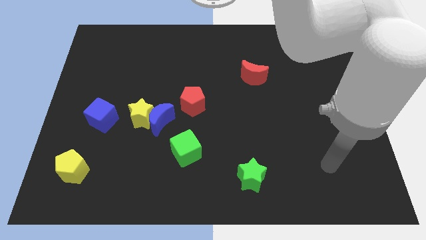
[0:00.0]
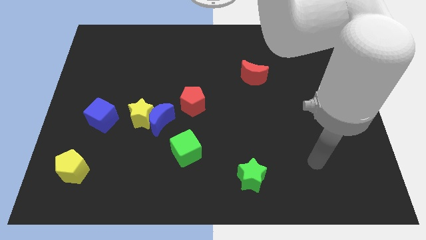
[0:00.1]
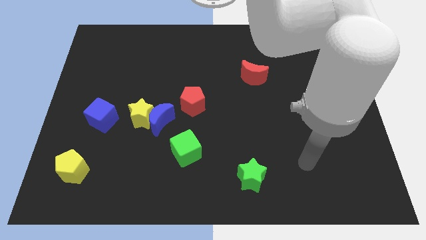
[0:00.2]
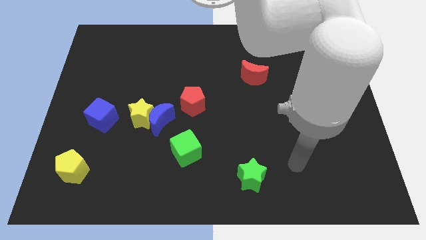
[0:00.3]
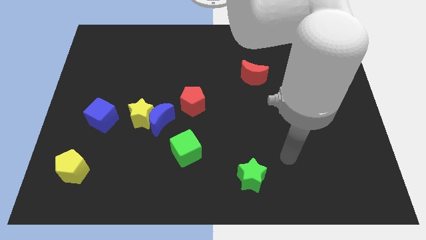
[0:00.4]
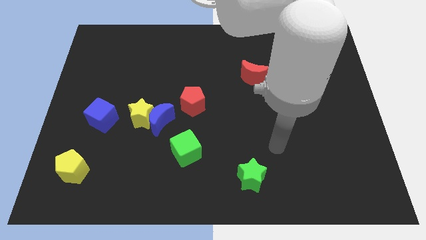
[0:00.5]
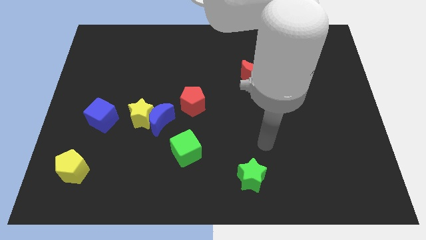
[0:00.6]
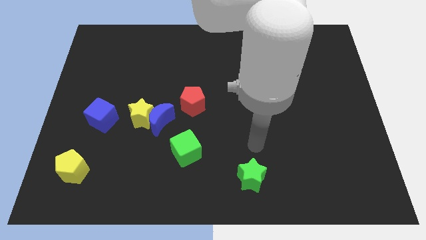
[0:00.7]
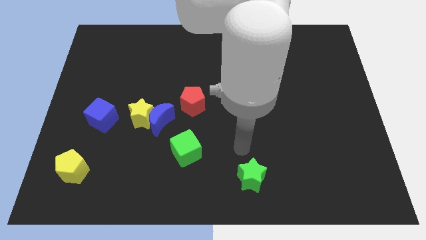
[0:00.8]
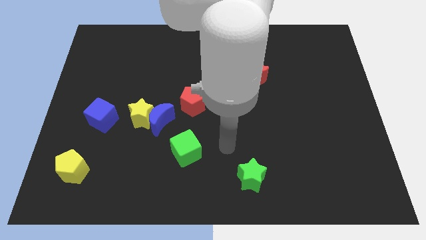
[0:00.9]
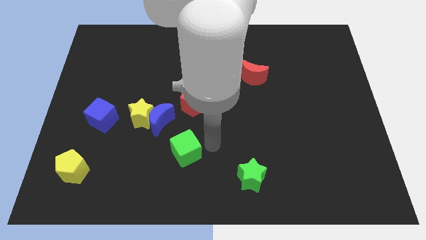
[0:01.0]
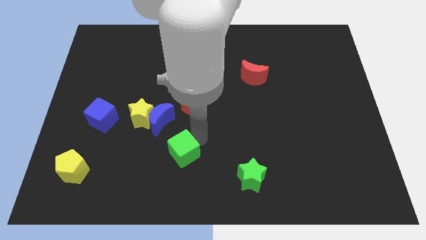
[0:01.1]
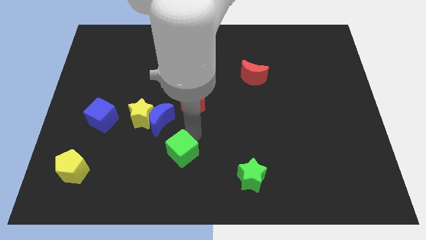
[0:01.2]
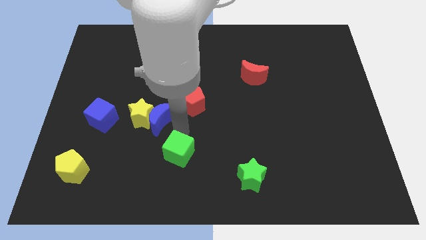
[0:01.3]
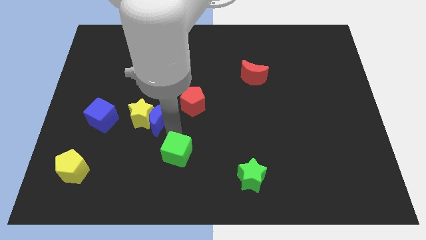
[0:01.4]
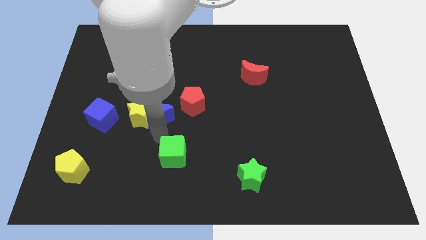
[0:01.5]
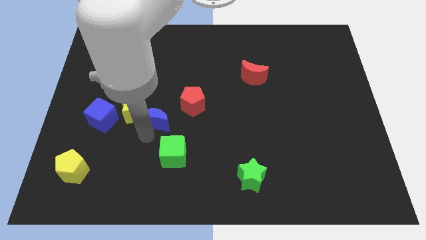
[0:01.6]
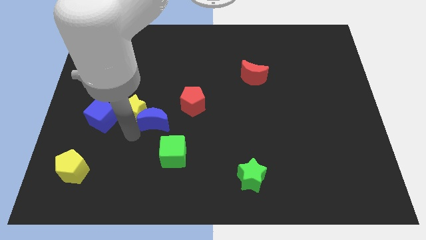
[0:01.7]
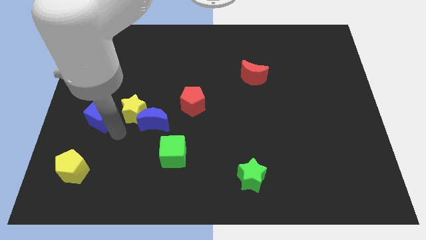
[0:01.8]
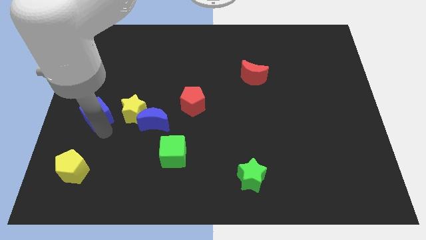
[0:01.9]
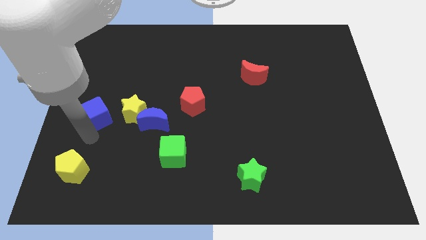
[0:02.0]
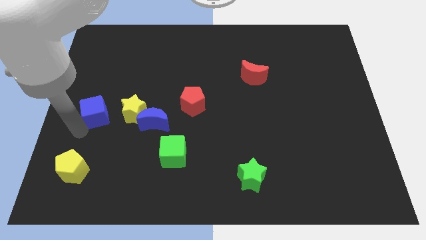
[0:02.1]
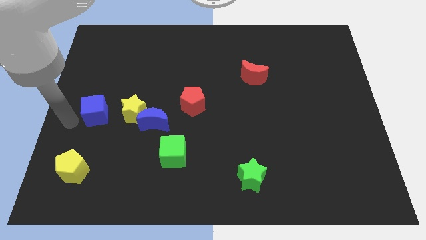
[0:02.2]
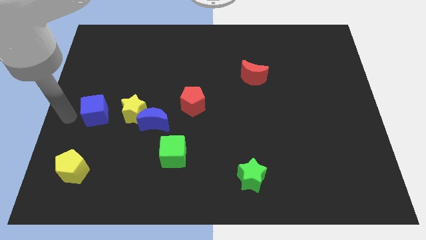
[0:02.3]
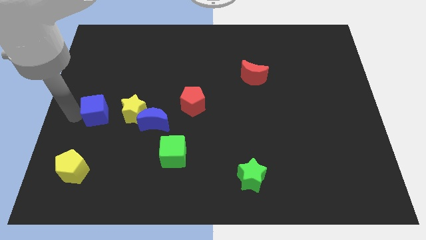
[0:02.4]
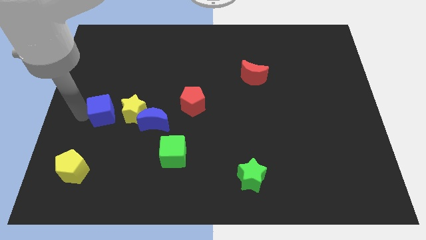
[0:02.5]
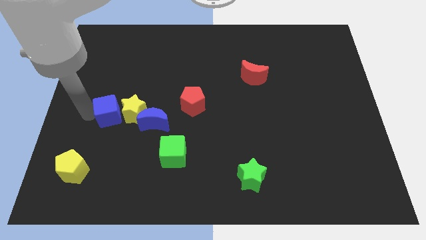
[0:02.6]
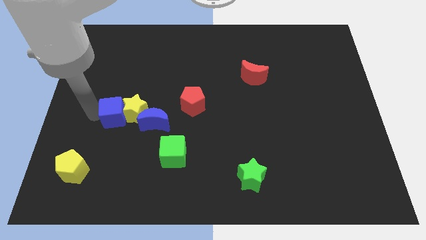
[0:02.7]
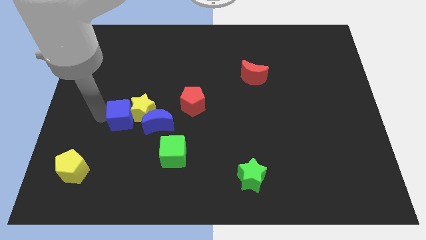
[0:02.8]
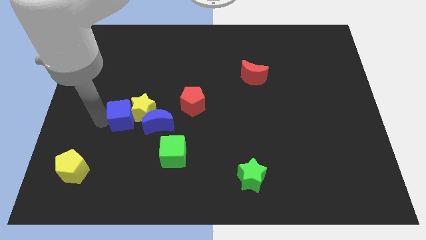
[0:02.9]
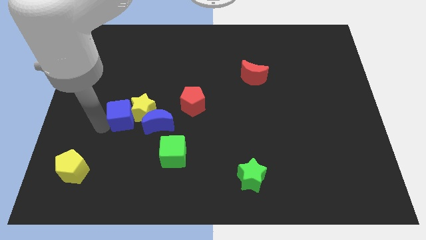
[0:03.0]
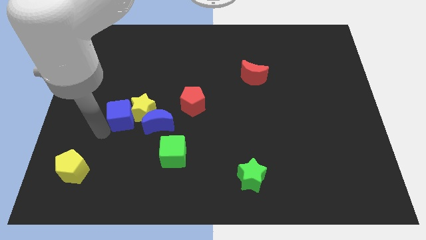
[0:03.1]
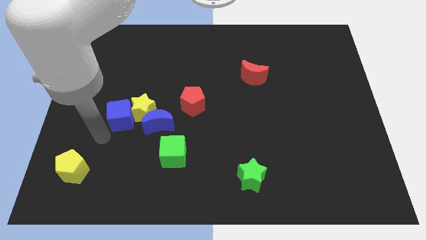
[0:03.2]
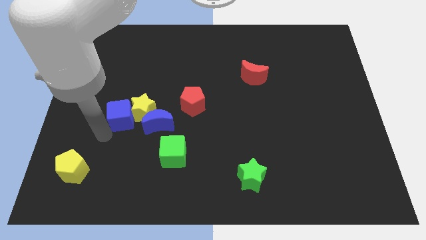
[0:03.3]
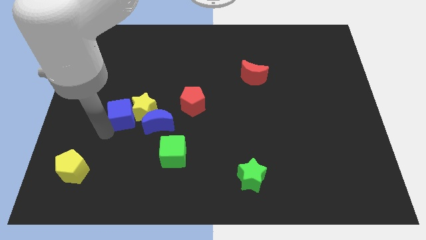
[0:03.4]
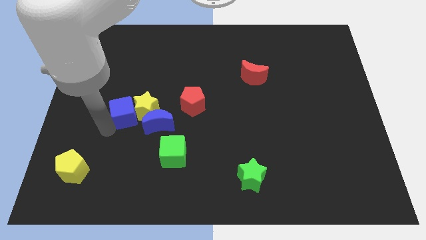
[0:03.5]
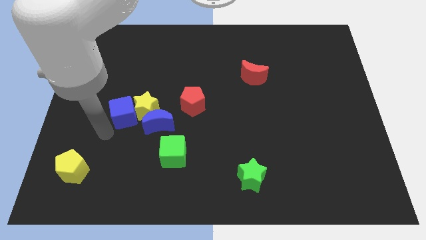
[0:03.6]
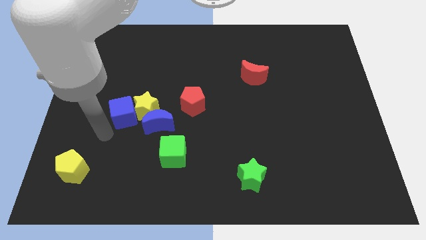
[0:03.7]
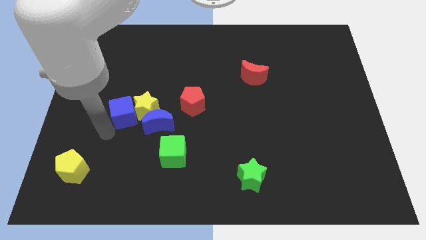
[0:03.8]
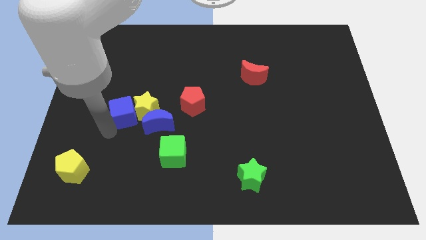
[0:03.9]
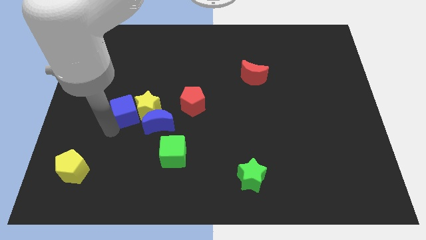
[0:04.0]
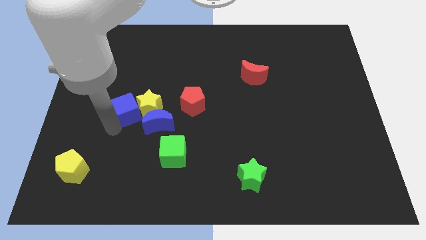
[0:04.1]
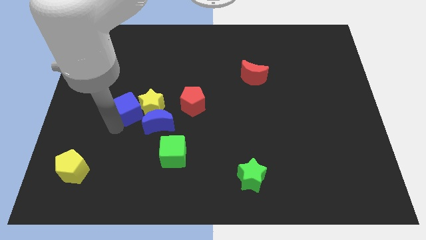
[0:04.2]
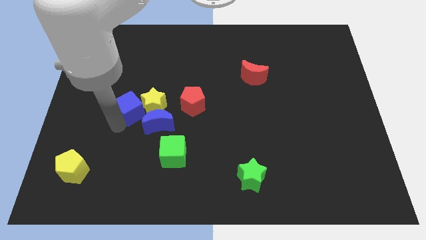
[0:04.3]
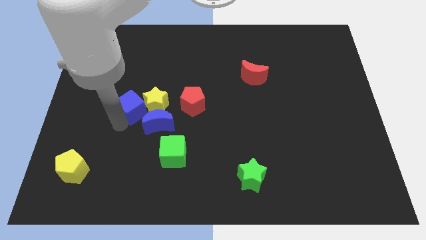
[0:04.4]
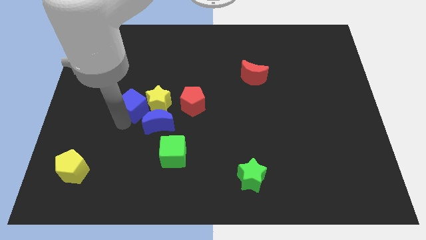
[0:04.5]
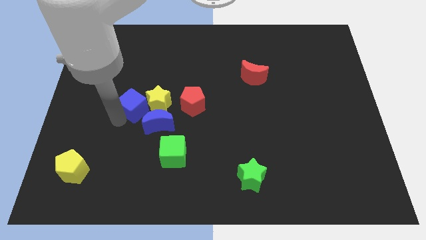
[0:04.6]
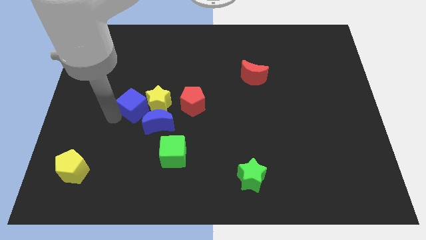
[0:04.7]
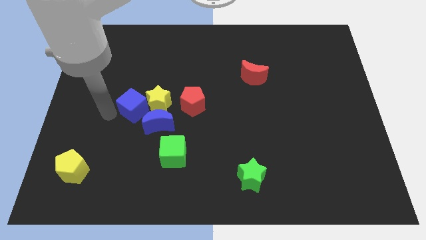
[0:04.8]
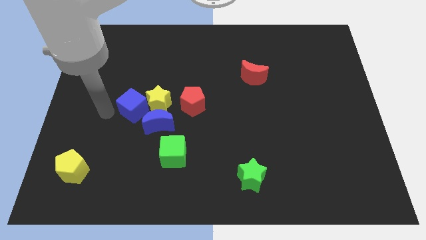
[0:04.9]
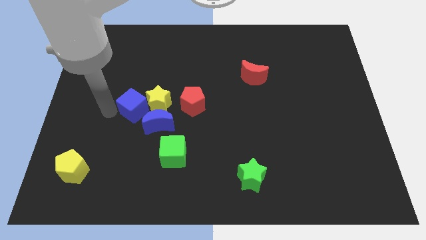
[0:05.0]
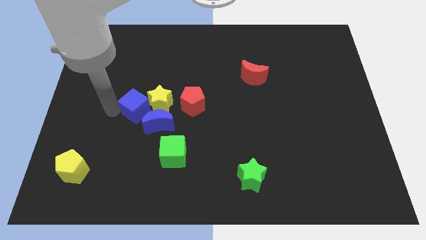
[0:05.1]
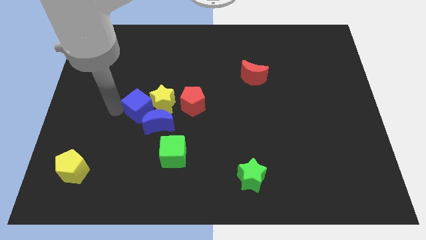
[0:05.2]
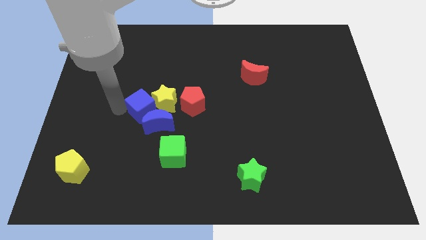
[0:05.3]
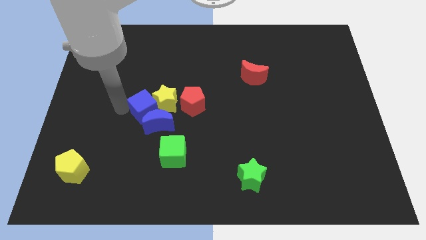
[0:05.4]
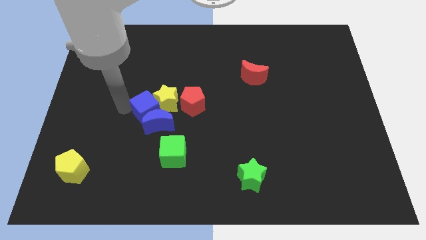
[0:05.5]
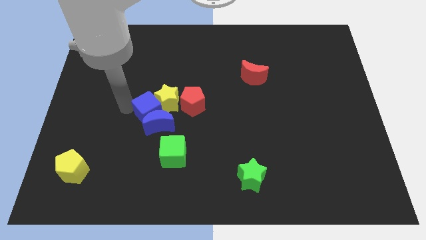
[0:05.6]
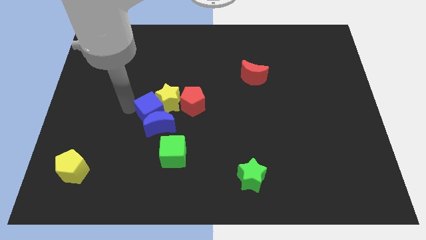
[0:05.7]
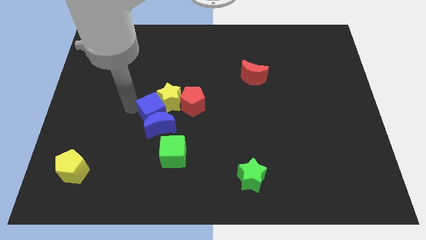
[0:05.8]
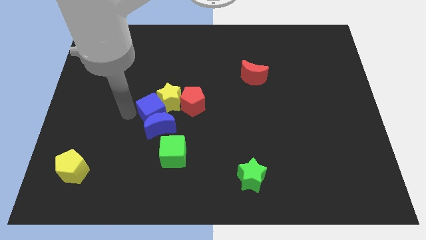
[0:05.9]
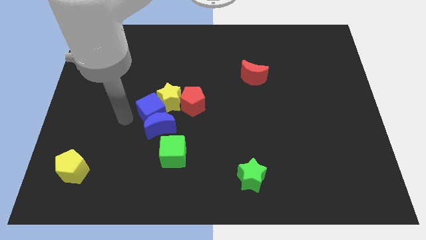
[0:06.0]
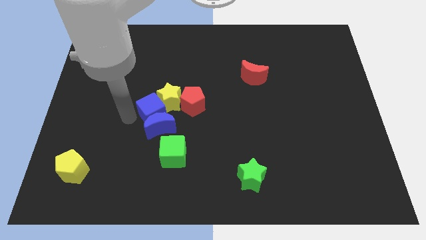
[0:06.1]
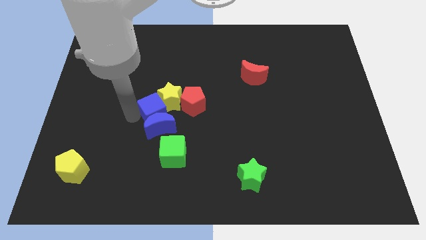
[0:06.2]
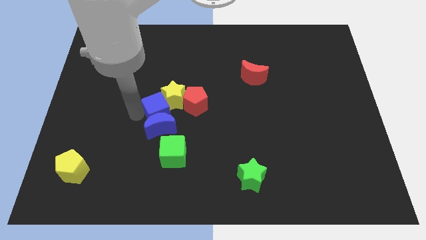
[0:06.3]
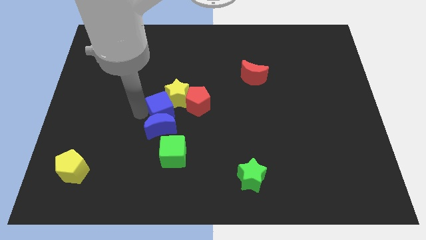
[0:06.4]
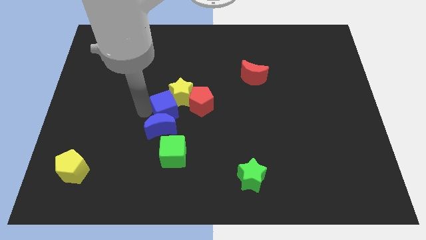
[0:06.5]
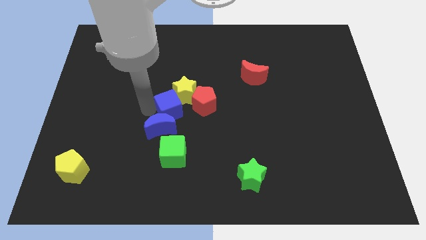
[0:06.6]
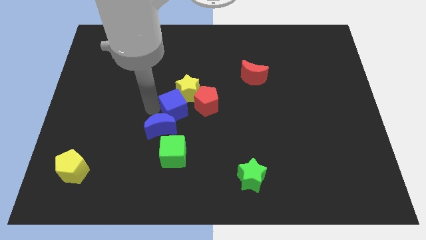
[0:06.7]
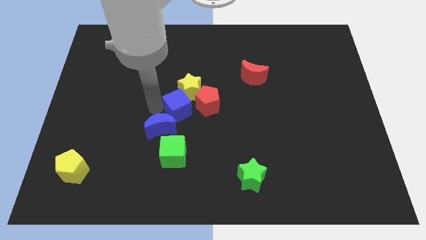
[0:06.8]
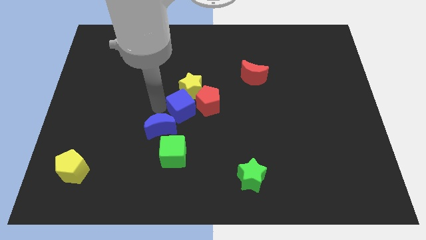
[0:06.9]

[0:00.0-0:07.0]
slide the blue cube next to the red pentagon
